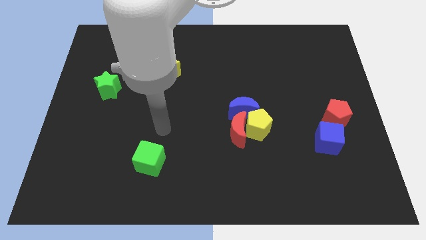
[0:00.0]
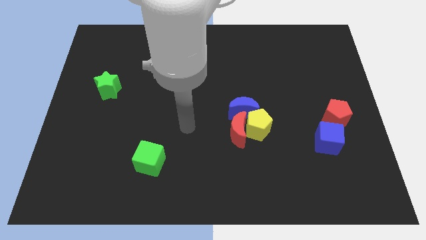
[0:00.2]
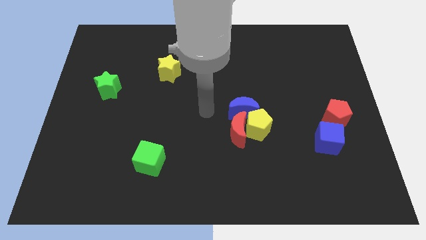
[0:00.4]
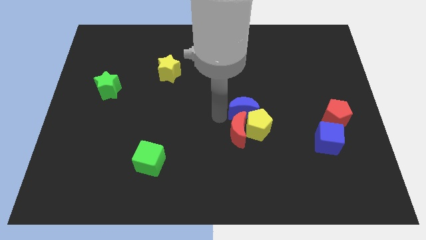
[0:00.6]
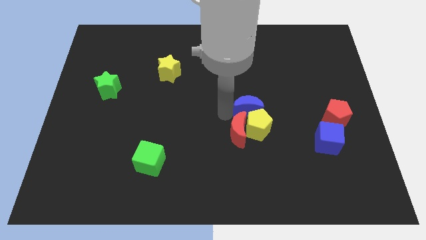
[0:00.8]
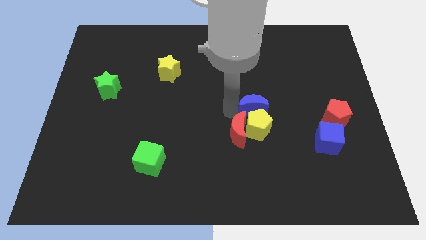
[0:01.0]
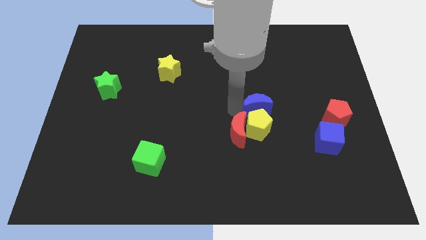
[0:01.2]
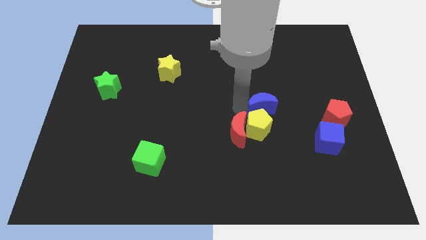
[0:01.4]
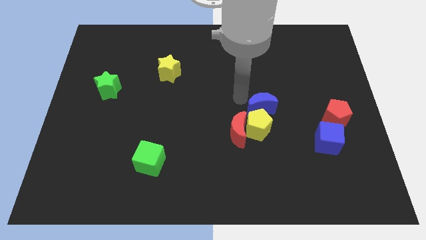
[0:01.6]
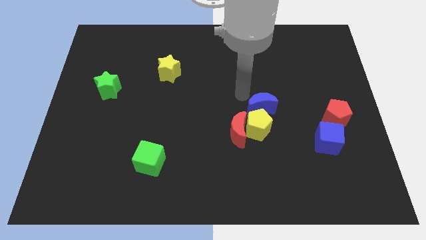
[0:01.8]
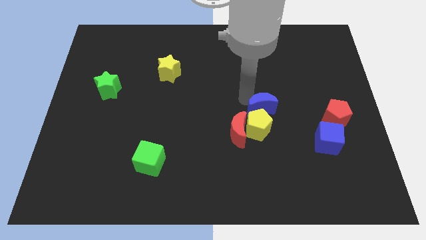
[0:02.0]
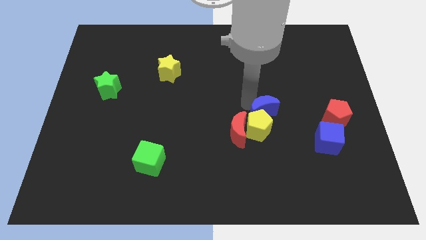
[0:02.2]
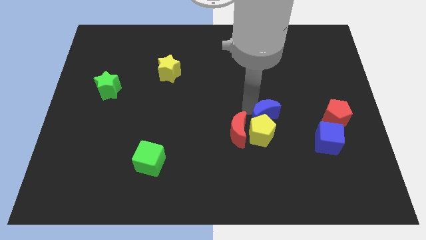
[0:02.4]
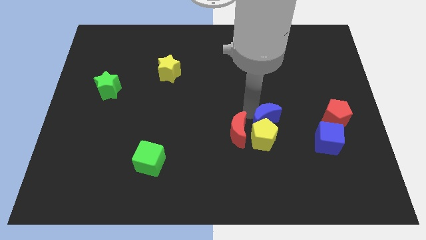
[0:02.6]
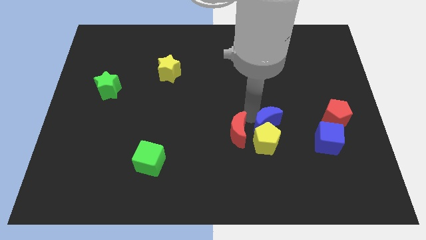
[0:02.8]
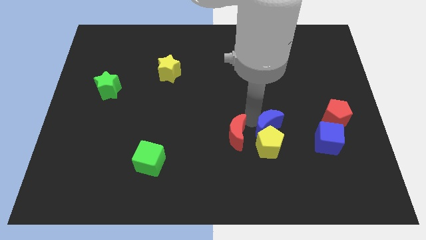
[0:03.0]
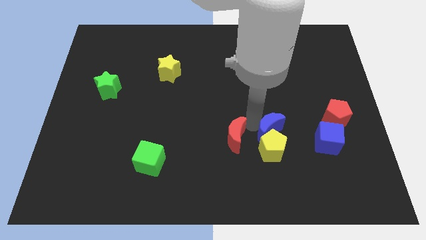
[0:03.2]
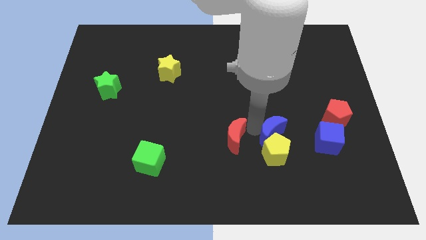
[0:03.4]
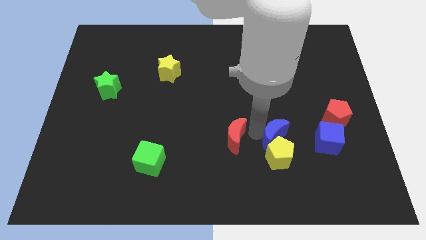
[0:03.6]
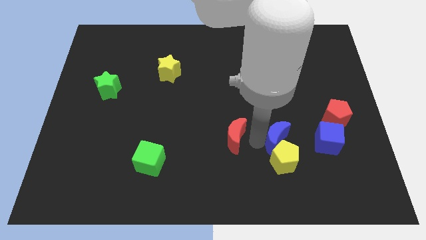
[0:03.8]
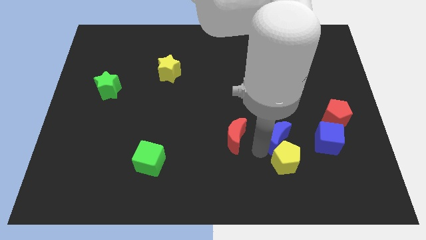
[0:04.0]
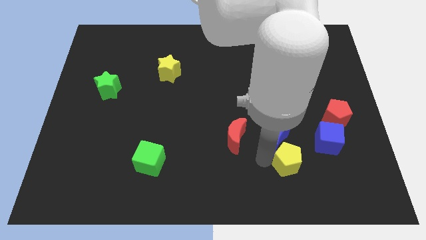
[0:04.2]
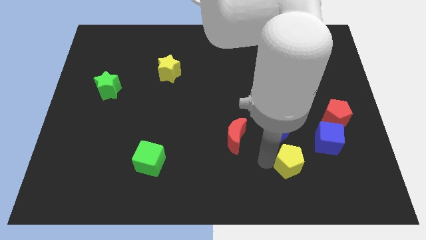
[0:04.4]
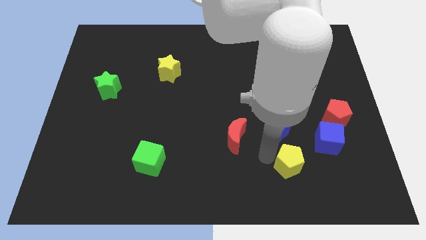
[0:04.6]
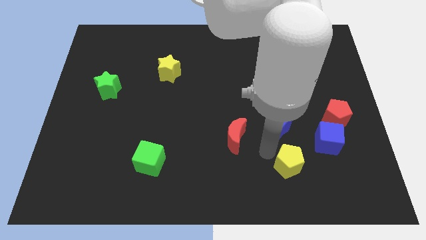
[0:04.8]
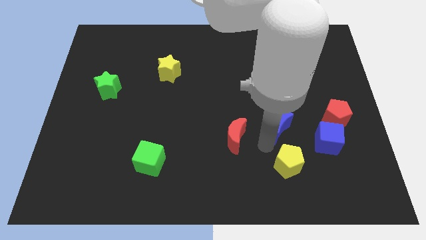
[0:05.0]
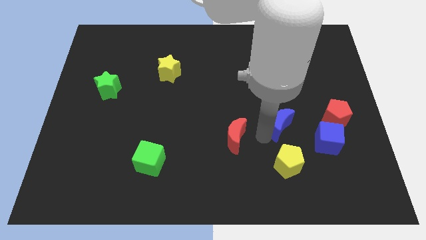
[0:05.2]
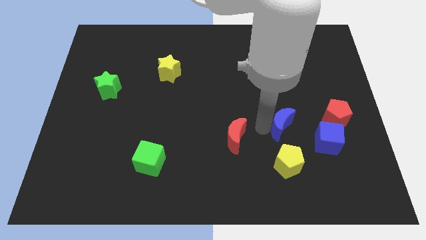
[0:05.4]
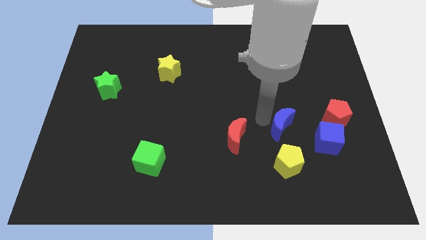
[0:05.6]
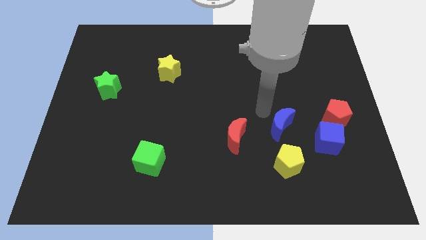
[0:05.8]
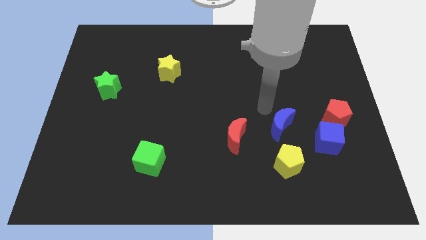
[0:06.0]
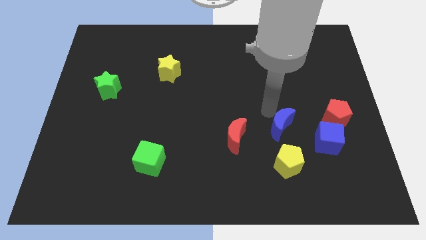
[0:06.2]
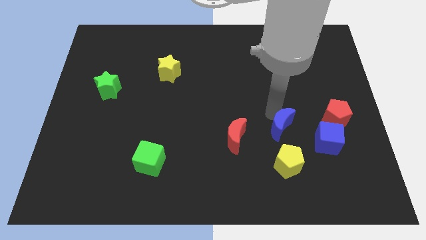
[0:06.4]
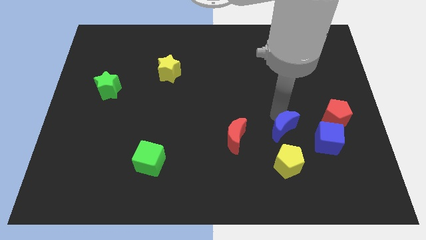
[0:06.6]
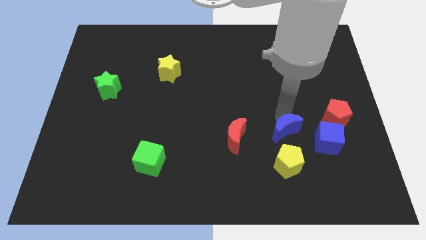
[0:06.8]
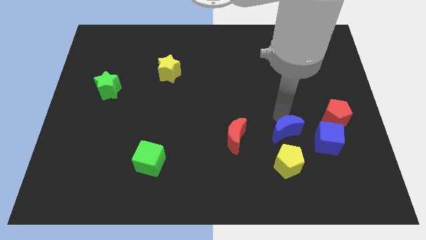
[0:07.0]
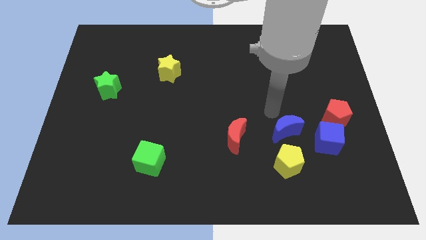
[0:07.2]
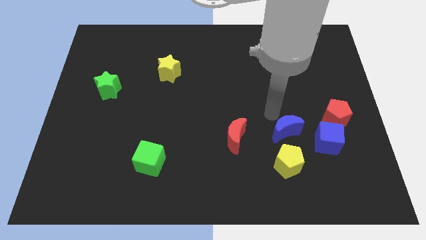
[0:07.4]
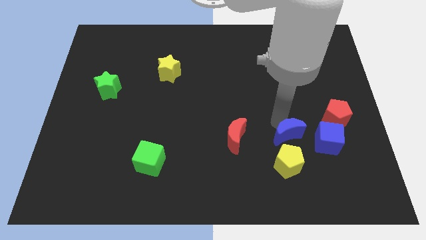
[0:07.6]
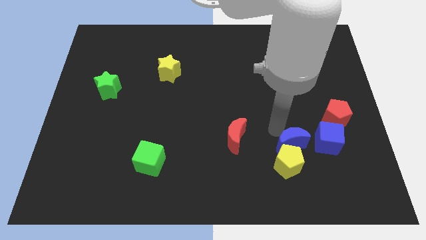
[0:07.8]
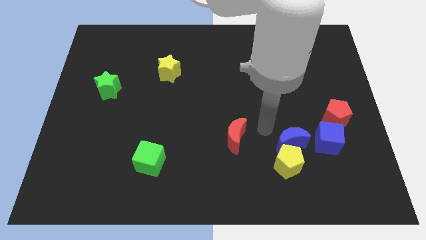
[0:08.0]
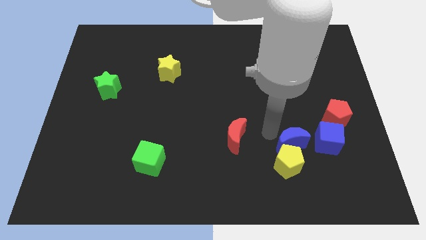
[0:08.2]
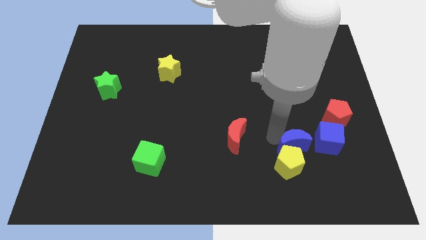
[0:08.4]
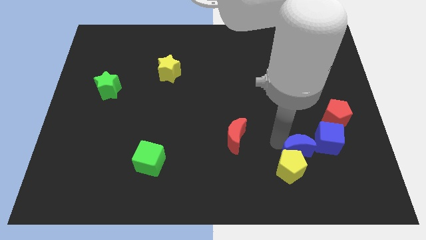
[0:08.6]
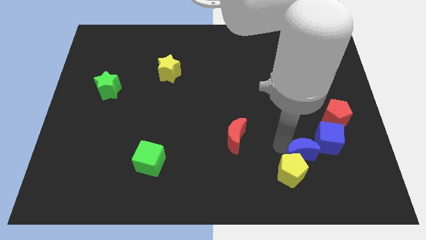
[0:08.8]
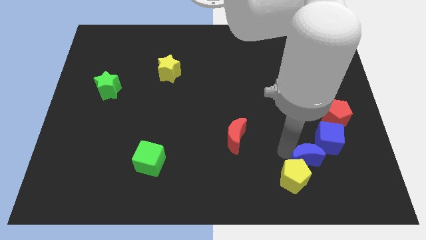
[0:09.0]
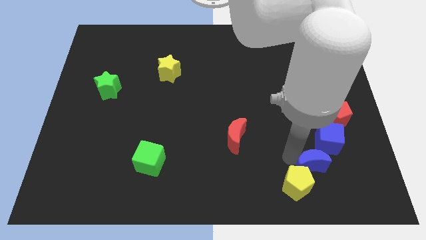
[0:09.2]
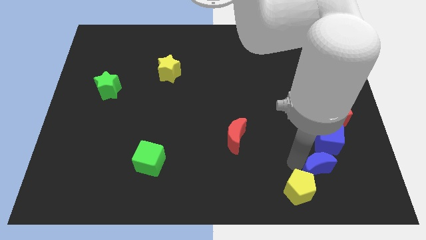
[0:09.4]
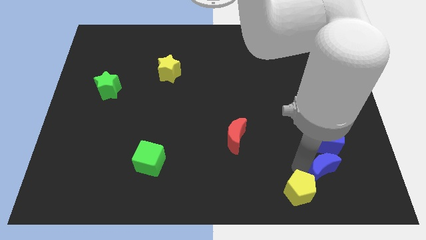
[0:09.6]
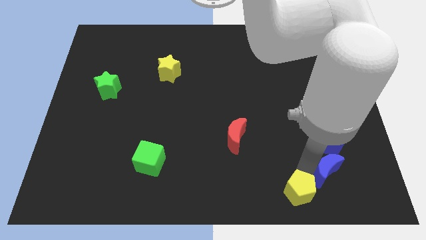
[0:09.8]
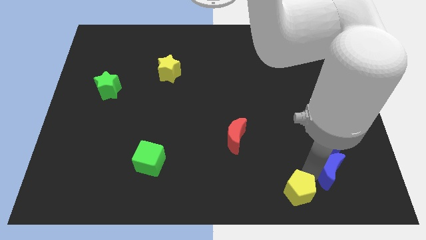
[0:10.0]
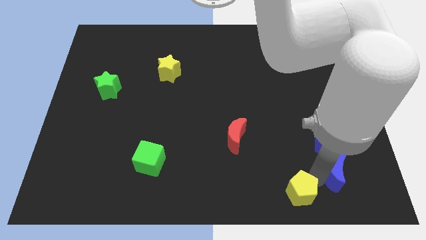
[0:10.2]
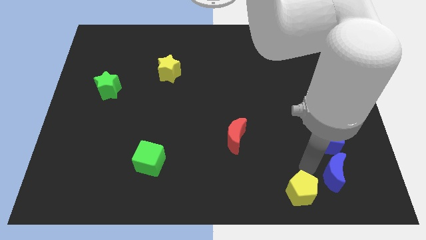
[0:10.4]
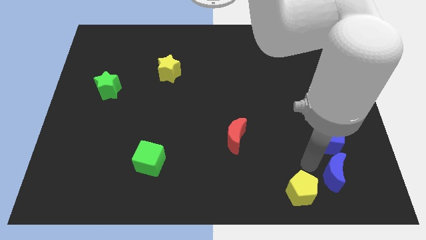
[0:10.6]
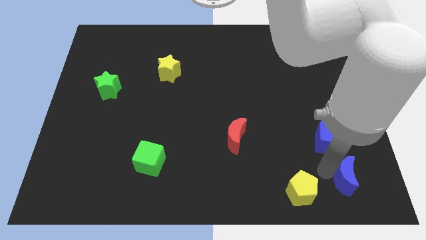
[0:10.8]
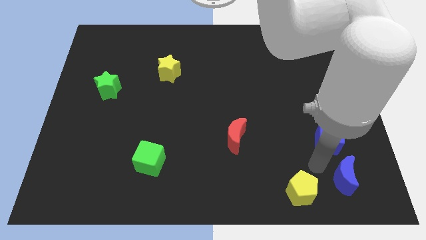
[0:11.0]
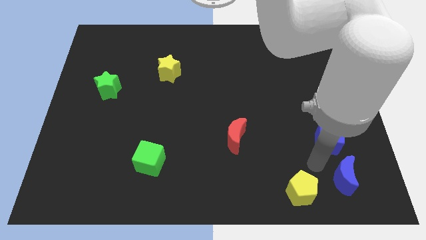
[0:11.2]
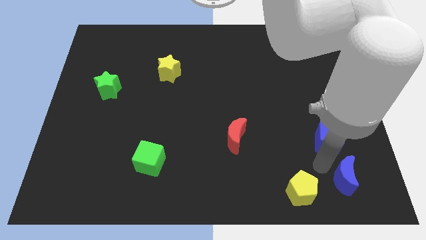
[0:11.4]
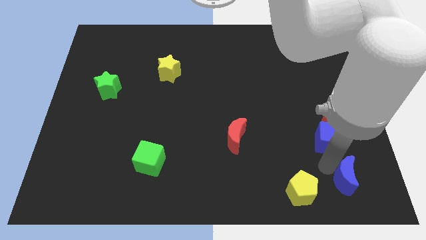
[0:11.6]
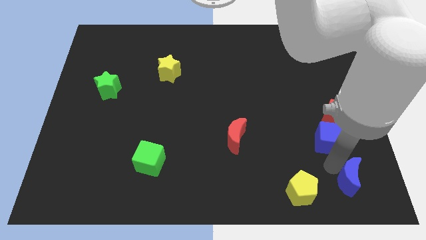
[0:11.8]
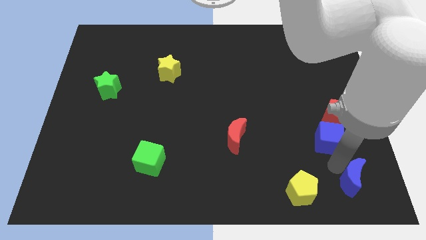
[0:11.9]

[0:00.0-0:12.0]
move the blue moon to the bottom right
